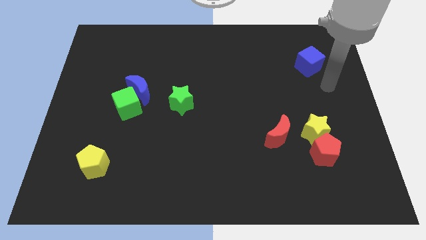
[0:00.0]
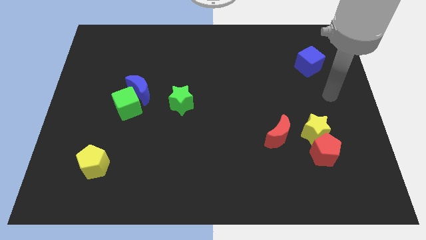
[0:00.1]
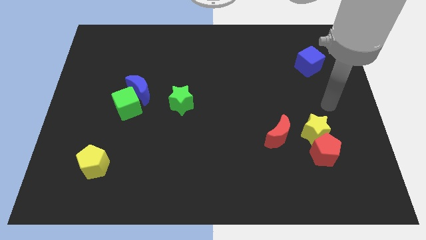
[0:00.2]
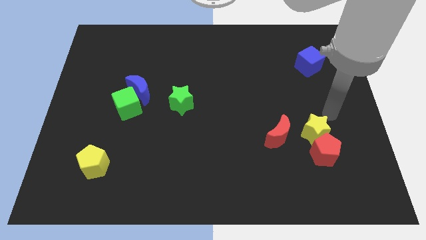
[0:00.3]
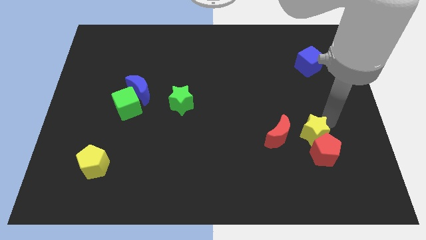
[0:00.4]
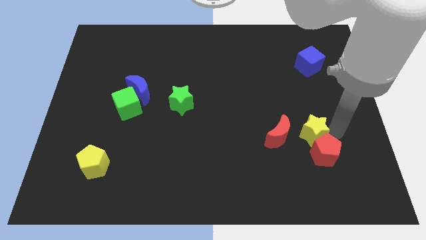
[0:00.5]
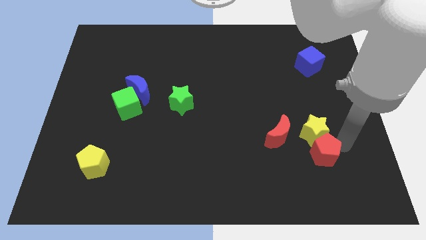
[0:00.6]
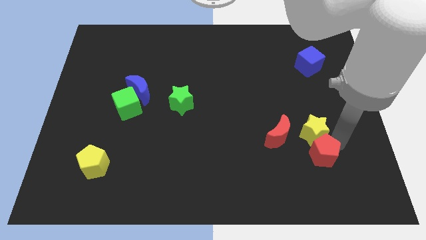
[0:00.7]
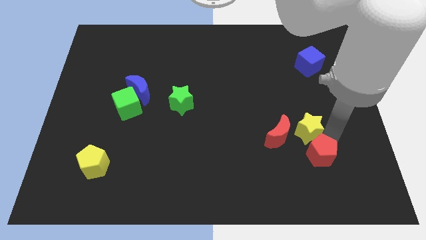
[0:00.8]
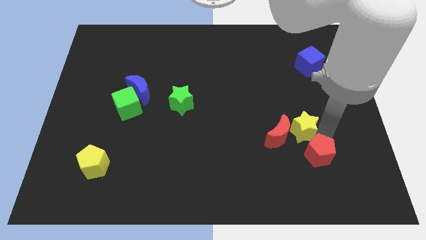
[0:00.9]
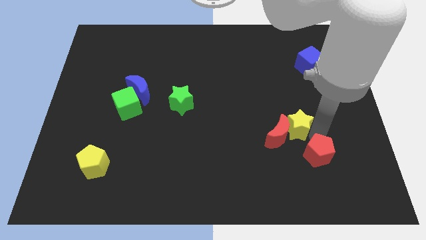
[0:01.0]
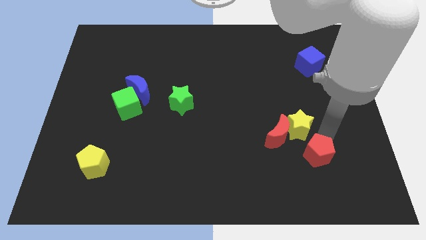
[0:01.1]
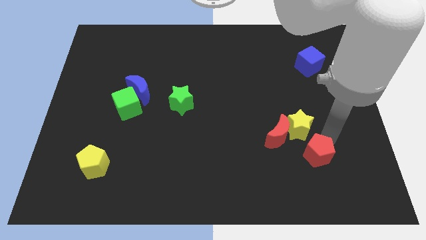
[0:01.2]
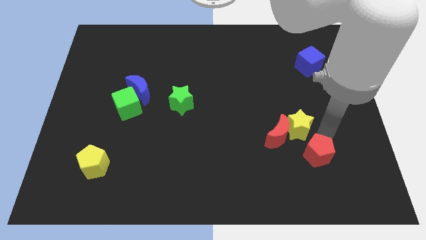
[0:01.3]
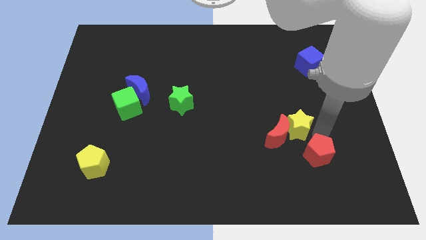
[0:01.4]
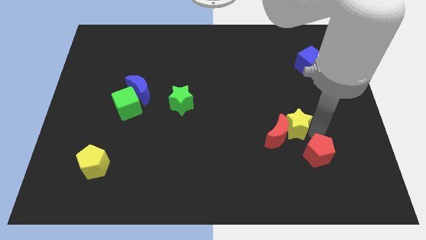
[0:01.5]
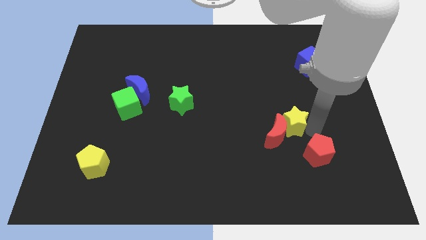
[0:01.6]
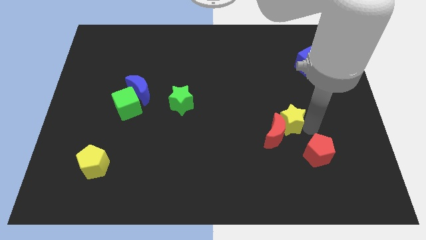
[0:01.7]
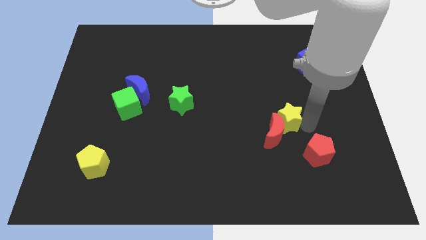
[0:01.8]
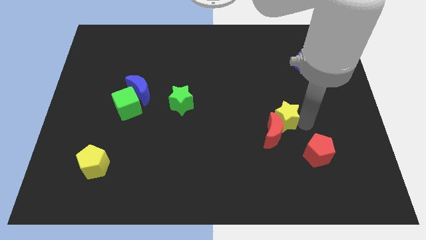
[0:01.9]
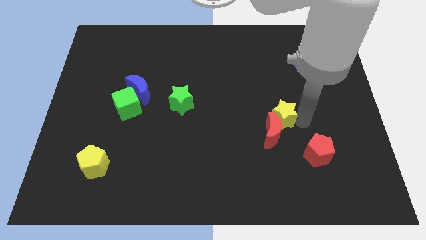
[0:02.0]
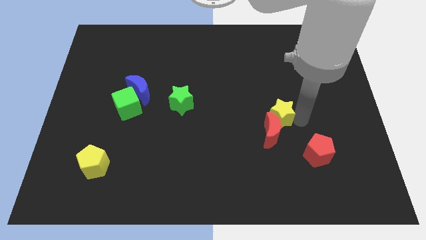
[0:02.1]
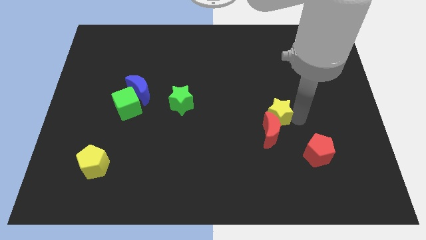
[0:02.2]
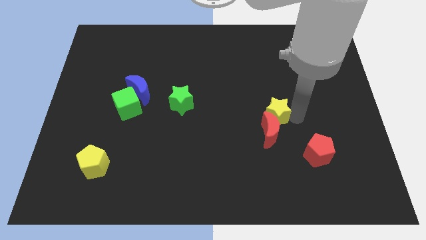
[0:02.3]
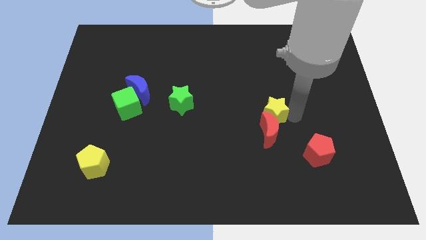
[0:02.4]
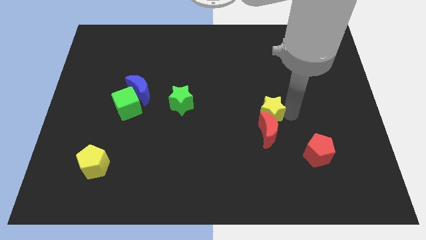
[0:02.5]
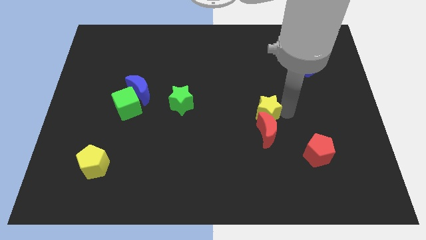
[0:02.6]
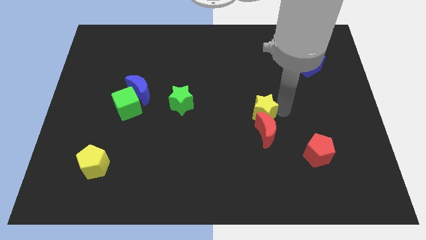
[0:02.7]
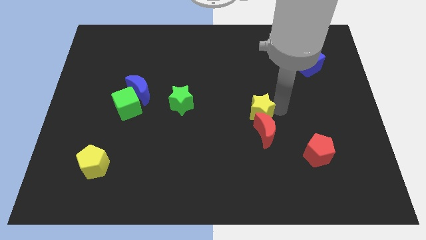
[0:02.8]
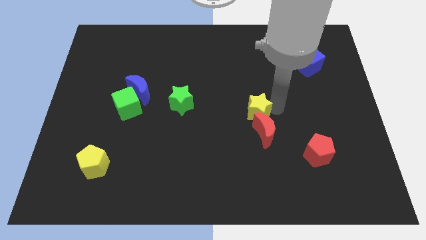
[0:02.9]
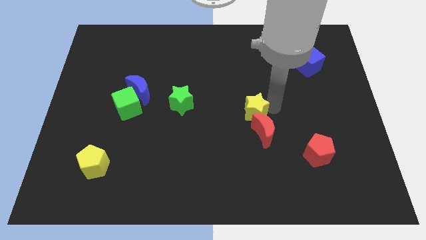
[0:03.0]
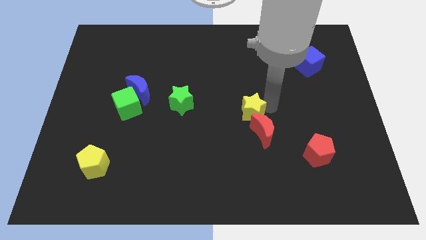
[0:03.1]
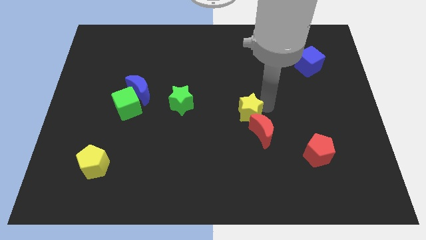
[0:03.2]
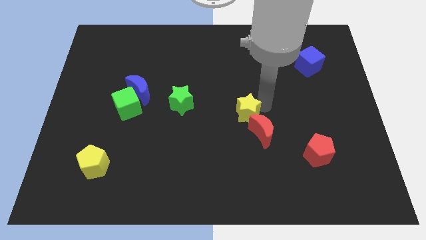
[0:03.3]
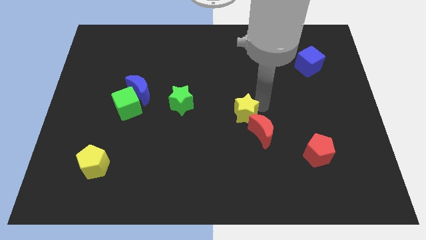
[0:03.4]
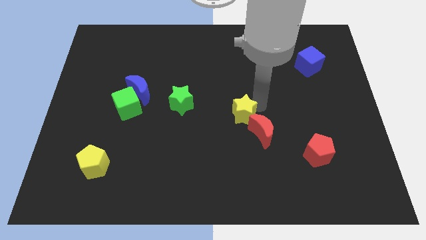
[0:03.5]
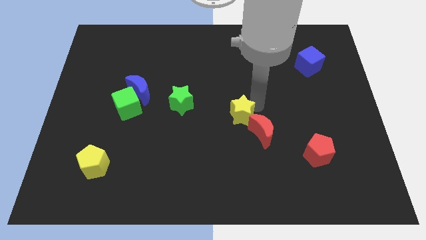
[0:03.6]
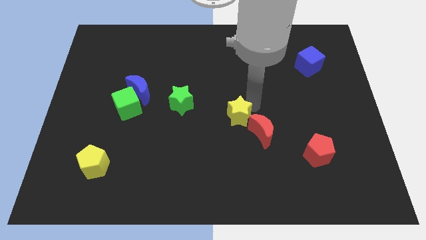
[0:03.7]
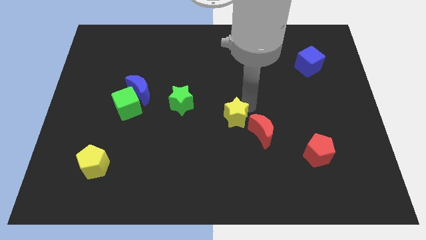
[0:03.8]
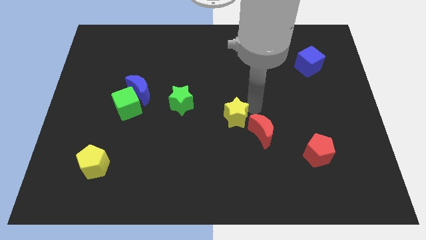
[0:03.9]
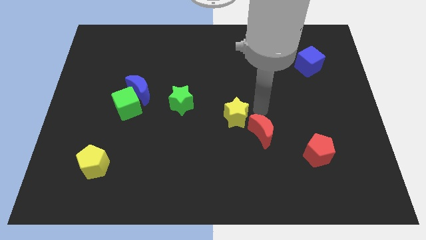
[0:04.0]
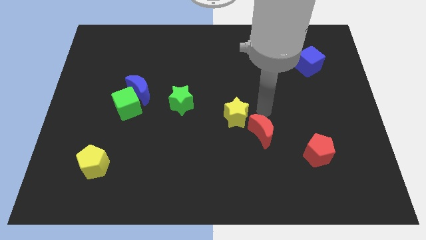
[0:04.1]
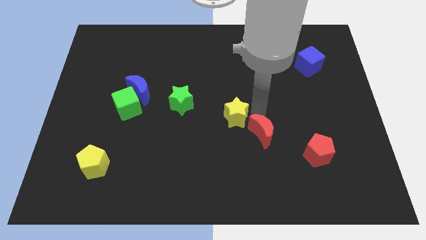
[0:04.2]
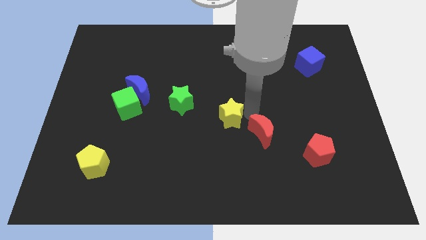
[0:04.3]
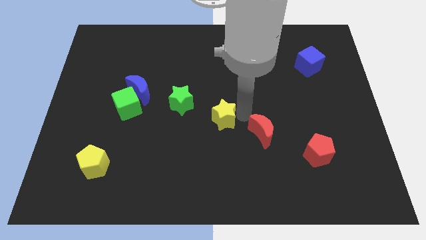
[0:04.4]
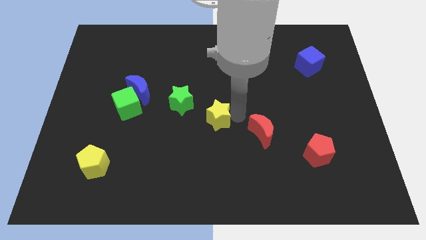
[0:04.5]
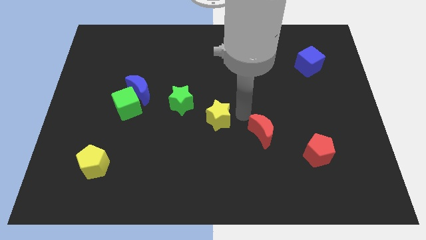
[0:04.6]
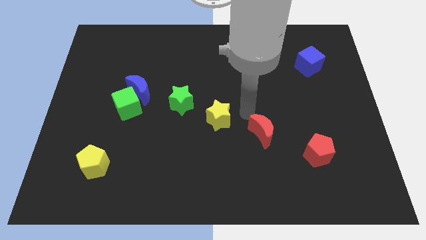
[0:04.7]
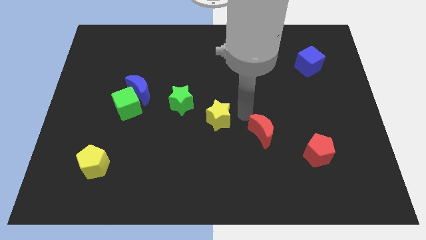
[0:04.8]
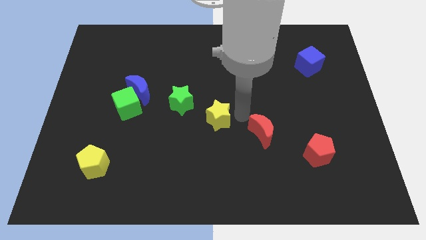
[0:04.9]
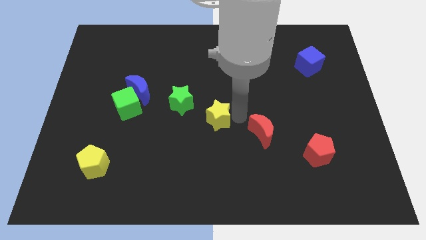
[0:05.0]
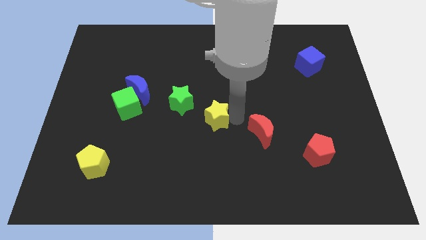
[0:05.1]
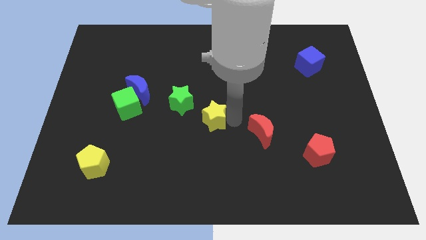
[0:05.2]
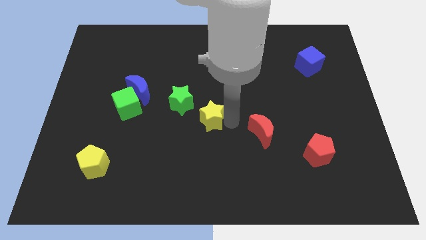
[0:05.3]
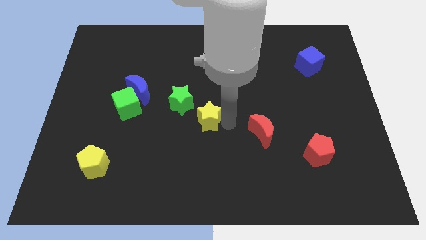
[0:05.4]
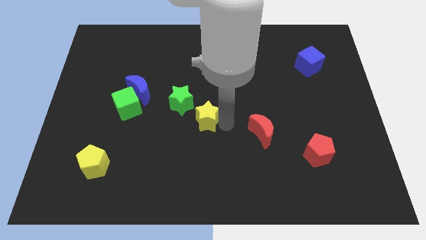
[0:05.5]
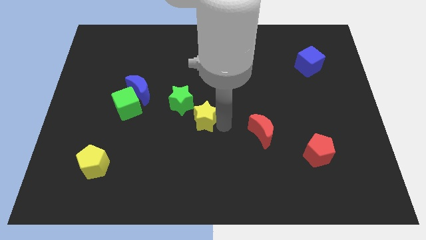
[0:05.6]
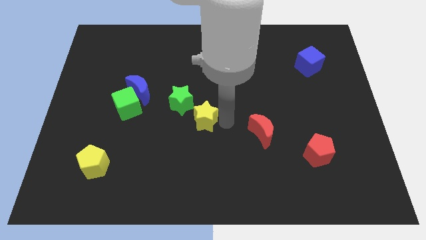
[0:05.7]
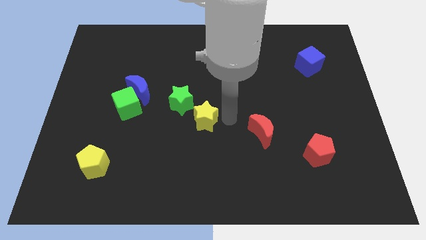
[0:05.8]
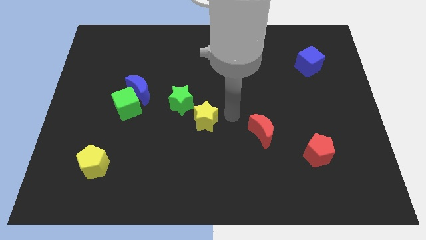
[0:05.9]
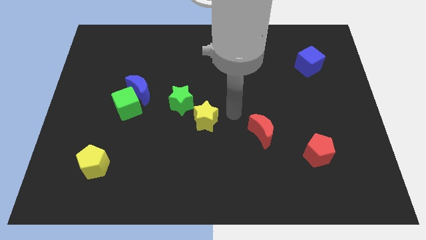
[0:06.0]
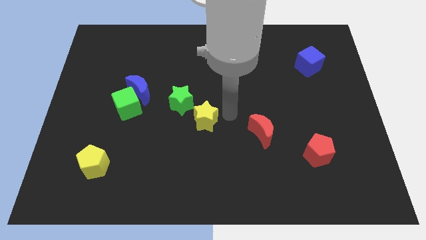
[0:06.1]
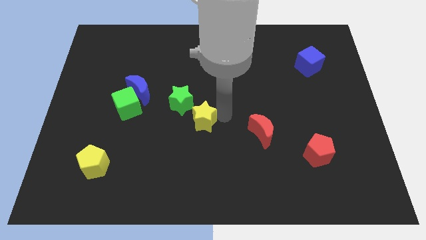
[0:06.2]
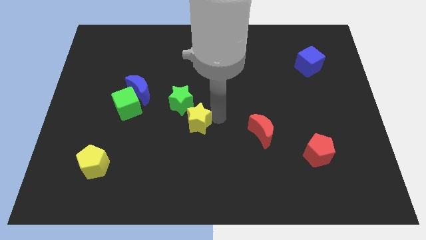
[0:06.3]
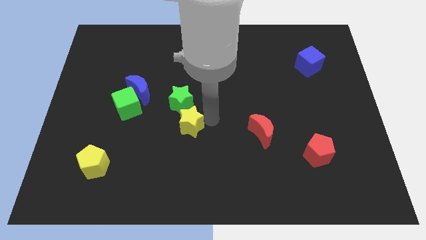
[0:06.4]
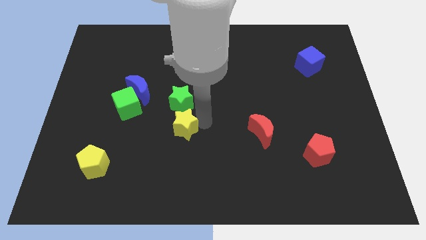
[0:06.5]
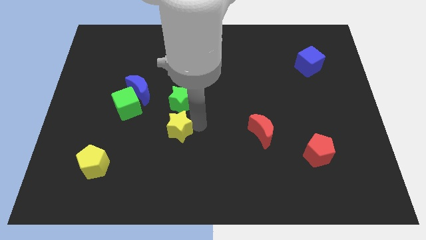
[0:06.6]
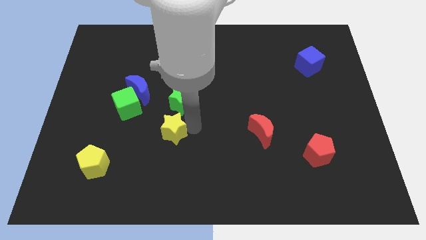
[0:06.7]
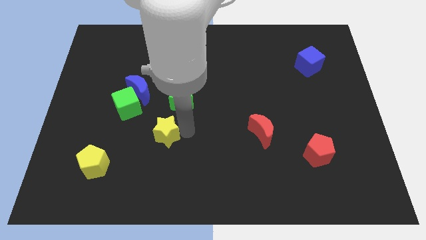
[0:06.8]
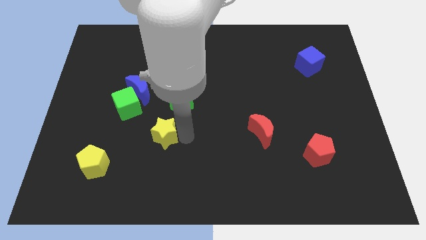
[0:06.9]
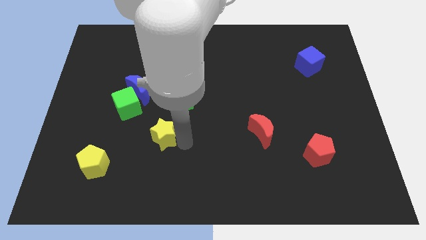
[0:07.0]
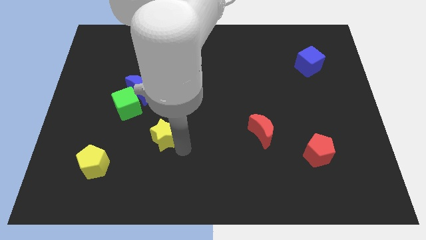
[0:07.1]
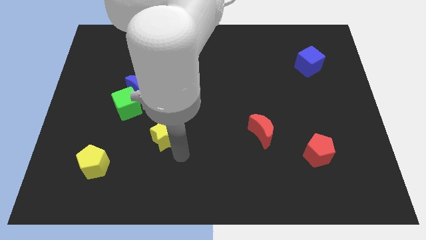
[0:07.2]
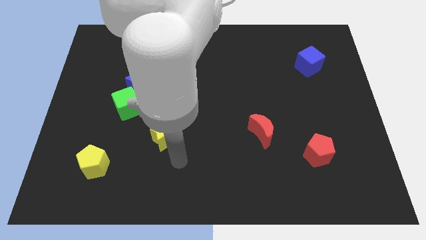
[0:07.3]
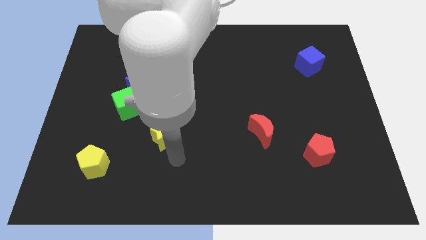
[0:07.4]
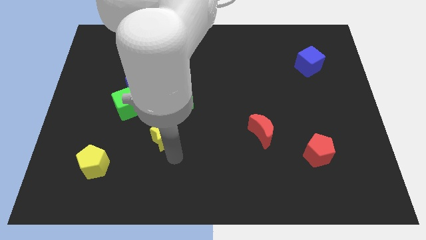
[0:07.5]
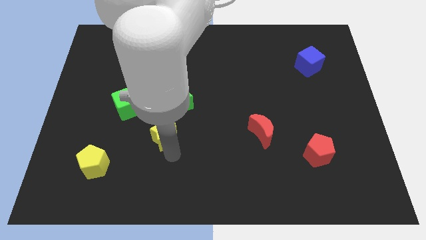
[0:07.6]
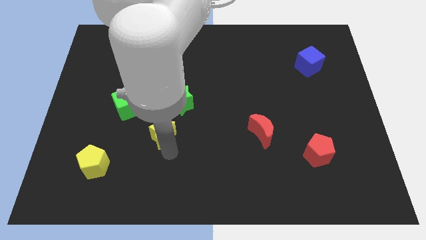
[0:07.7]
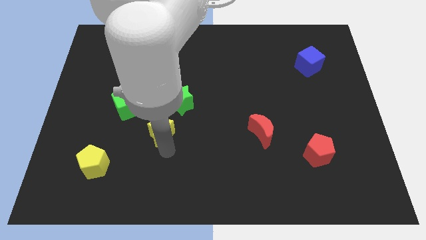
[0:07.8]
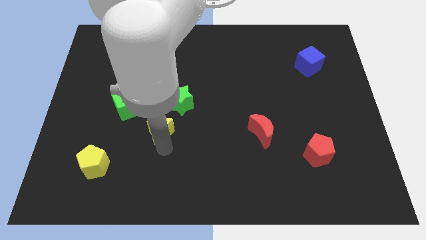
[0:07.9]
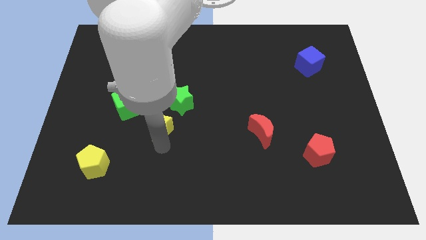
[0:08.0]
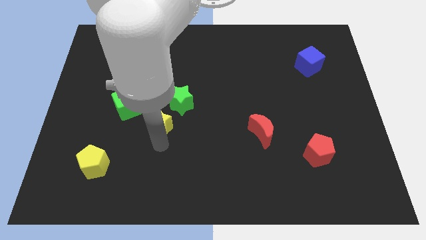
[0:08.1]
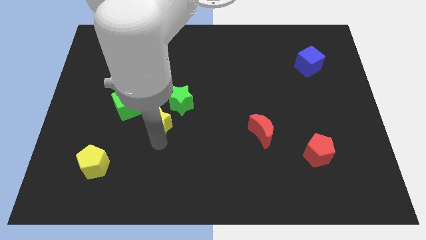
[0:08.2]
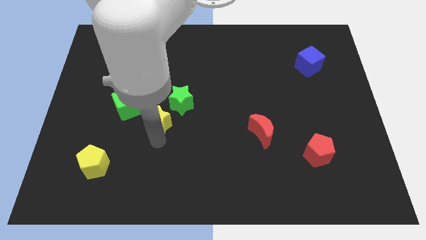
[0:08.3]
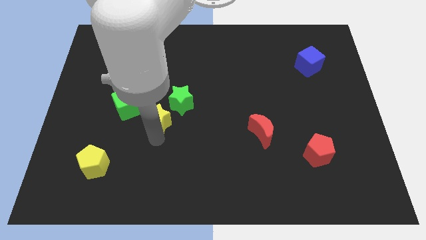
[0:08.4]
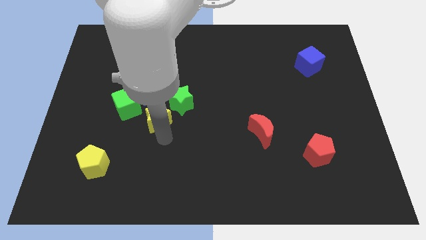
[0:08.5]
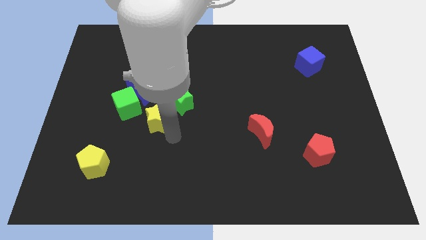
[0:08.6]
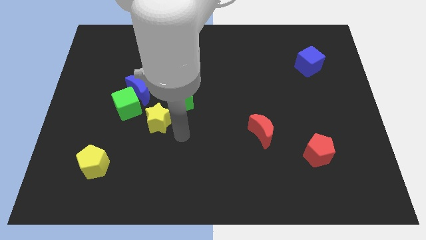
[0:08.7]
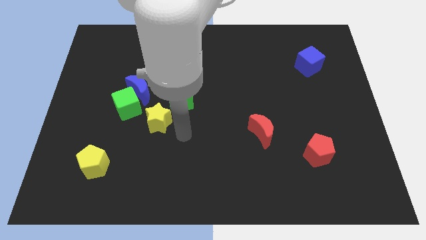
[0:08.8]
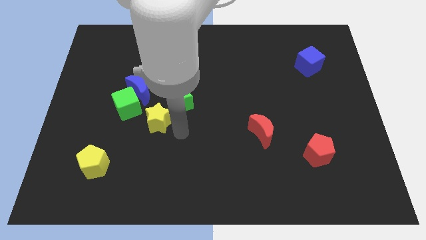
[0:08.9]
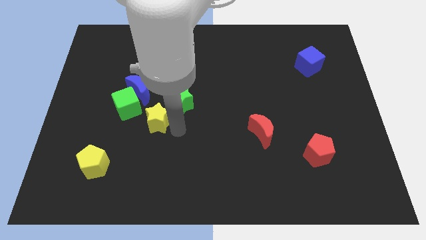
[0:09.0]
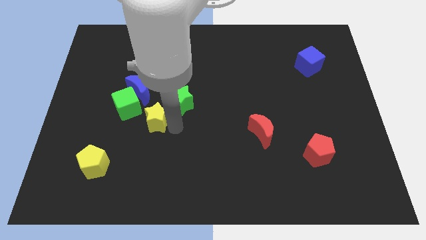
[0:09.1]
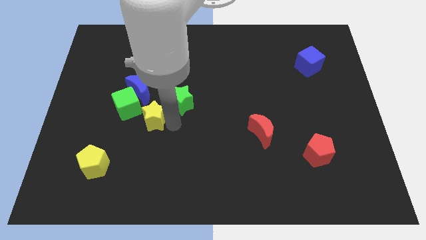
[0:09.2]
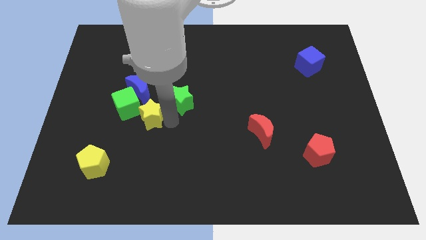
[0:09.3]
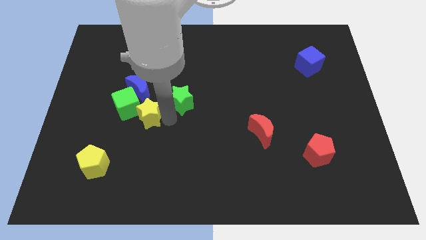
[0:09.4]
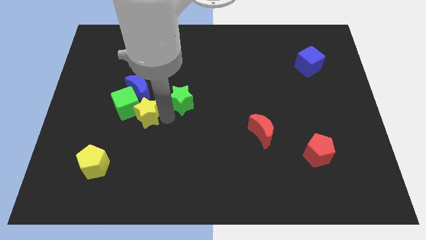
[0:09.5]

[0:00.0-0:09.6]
put the yellow star towards the green cube
